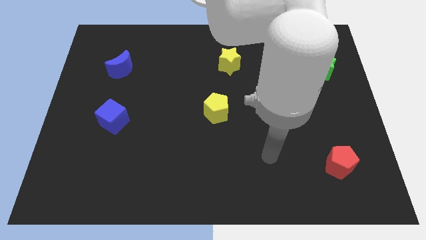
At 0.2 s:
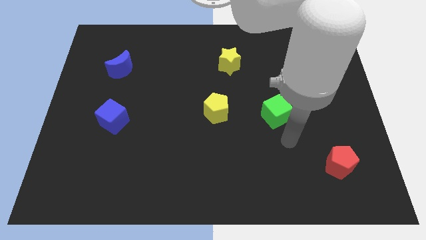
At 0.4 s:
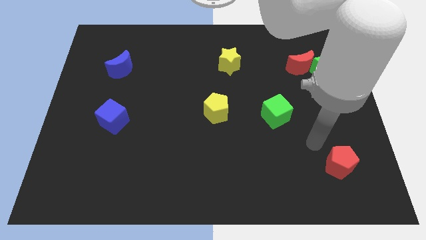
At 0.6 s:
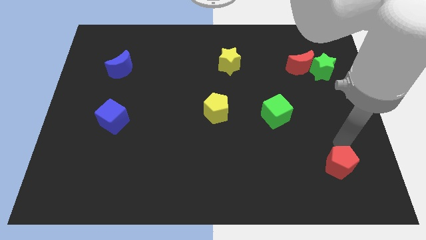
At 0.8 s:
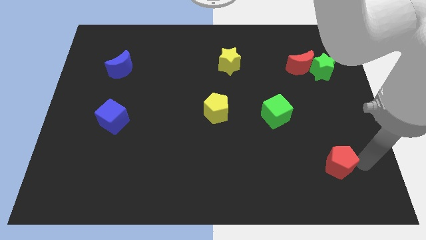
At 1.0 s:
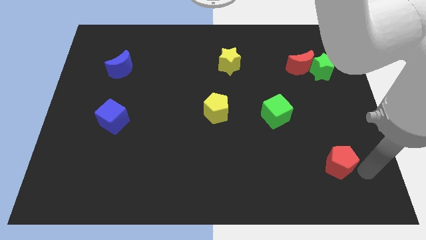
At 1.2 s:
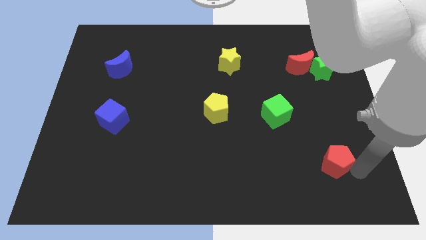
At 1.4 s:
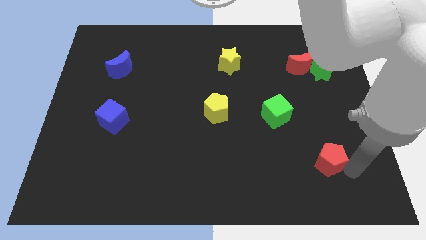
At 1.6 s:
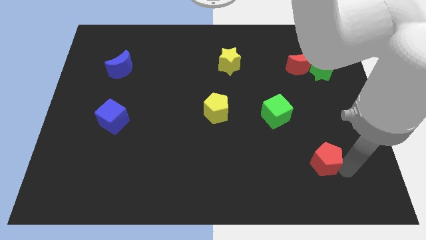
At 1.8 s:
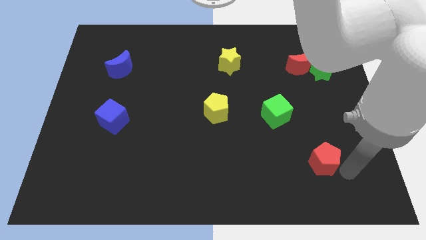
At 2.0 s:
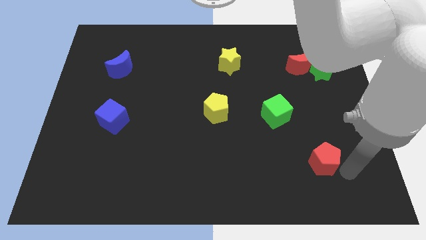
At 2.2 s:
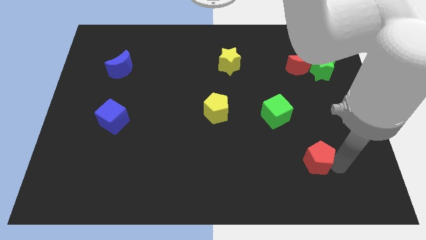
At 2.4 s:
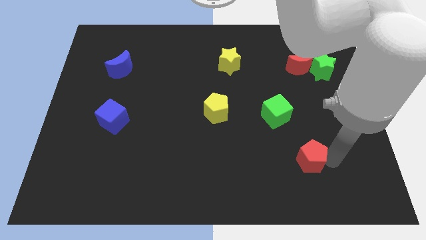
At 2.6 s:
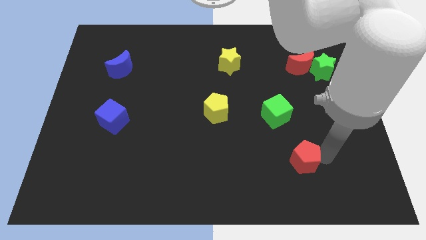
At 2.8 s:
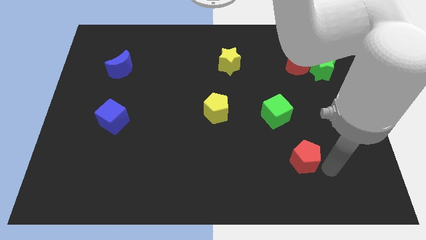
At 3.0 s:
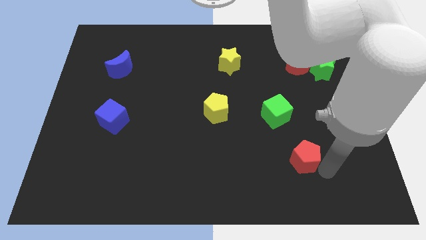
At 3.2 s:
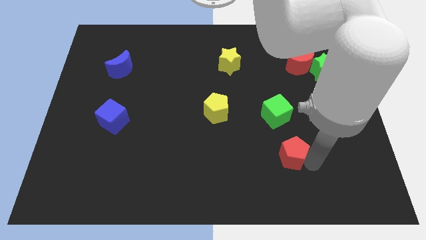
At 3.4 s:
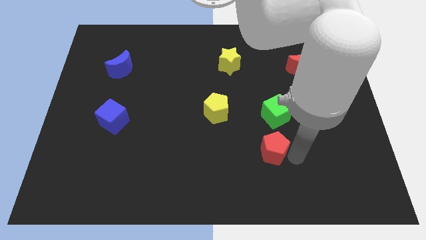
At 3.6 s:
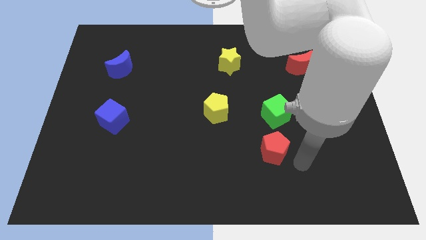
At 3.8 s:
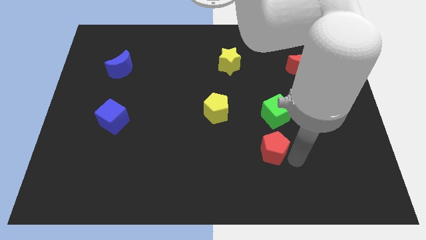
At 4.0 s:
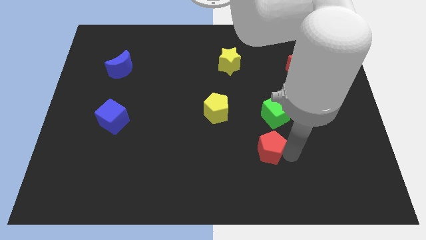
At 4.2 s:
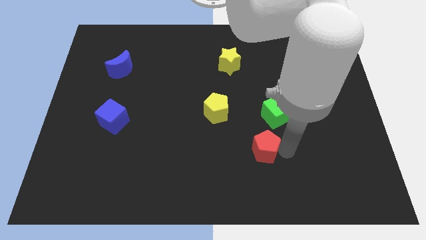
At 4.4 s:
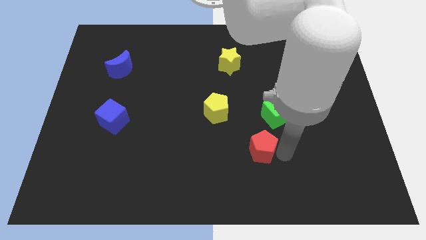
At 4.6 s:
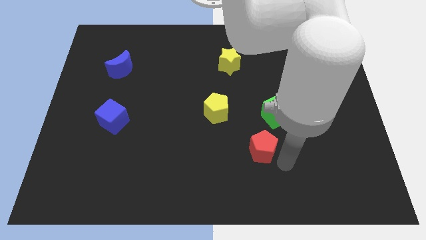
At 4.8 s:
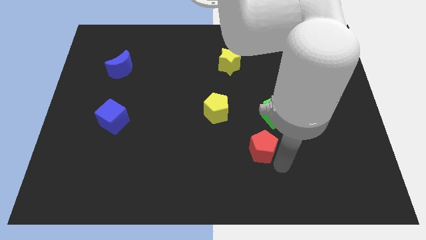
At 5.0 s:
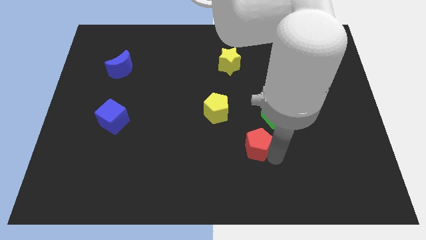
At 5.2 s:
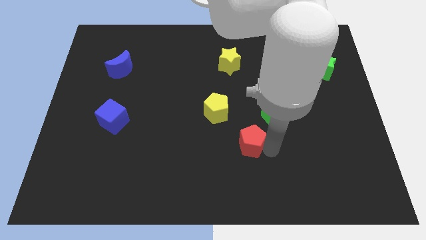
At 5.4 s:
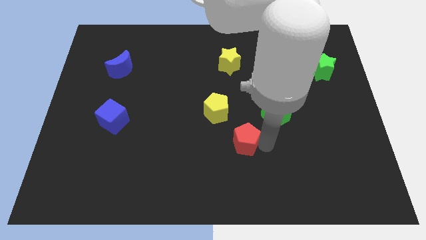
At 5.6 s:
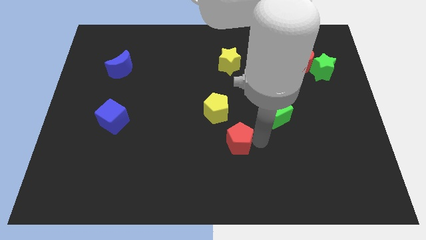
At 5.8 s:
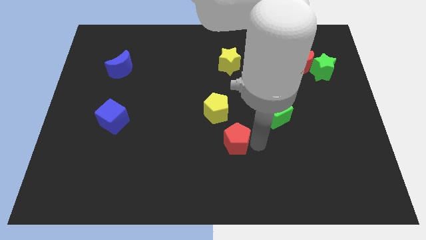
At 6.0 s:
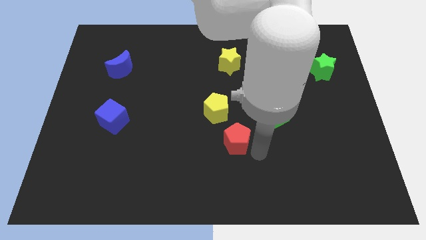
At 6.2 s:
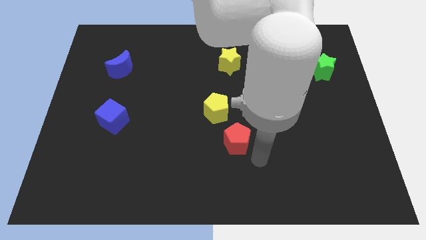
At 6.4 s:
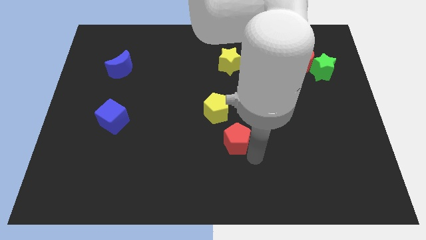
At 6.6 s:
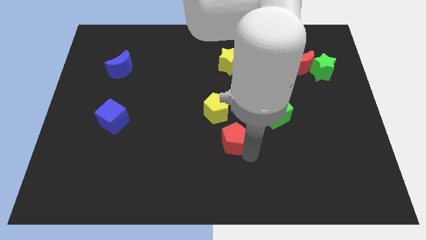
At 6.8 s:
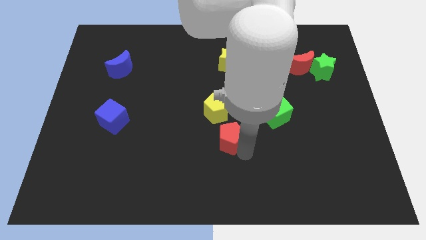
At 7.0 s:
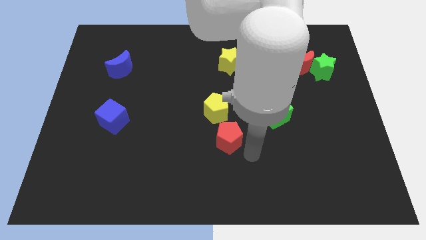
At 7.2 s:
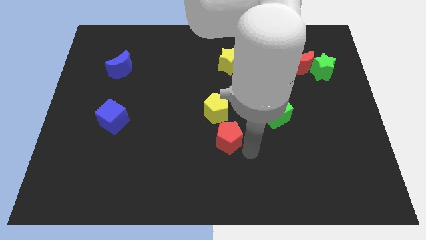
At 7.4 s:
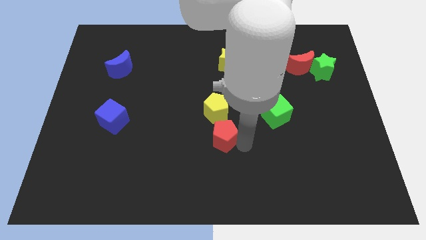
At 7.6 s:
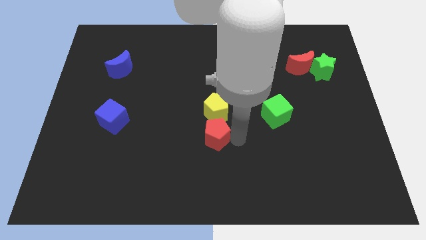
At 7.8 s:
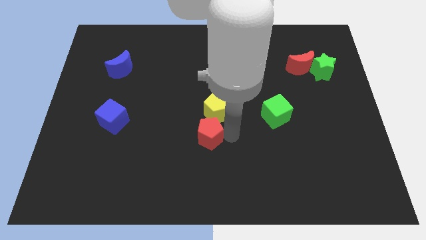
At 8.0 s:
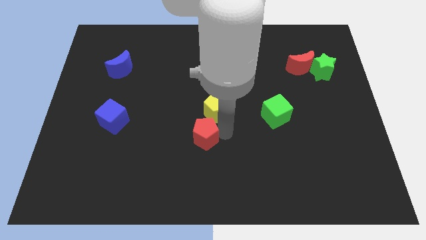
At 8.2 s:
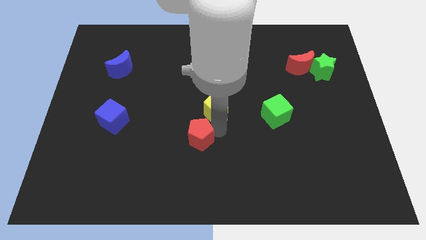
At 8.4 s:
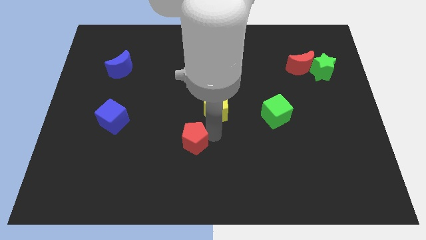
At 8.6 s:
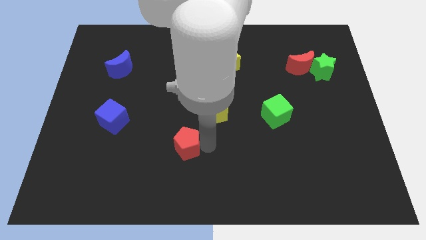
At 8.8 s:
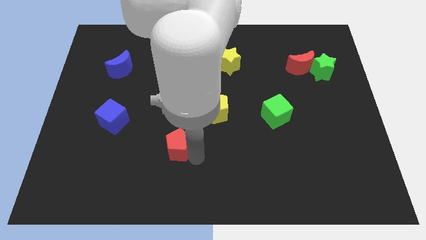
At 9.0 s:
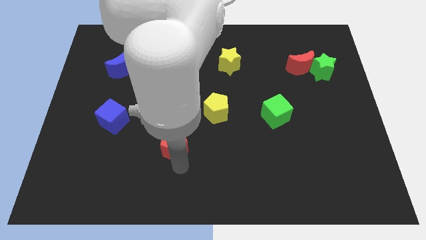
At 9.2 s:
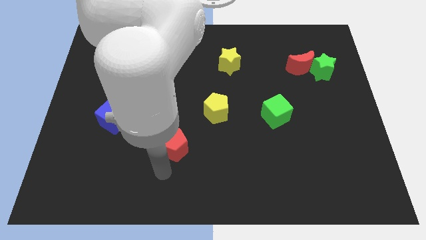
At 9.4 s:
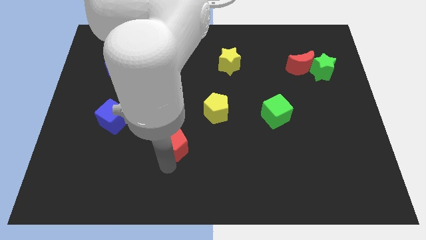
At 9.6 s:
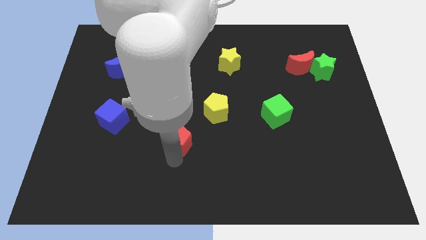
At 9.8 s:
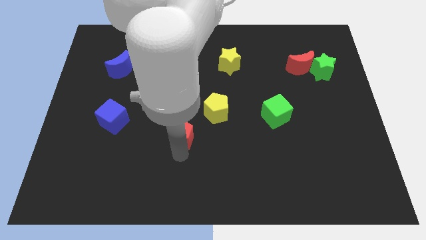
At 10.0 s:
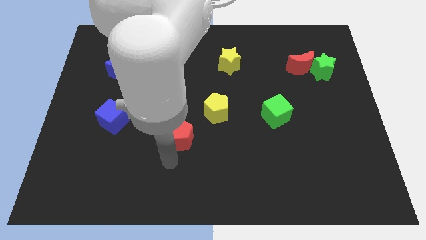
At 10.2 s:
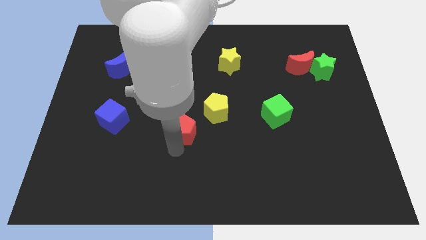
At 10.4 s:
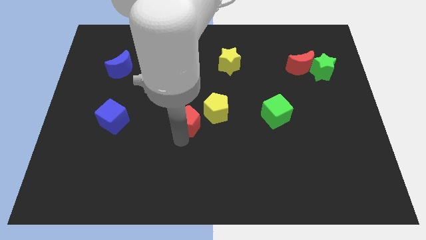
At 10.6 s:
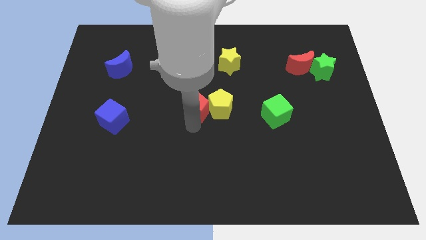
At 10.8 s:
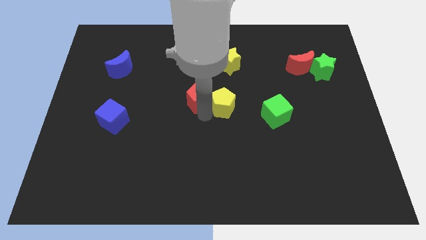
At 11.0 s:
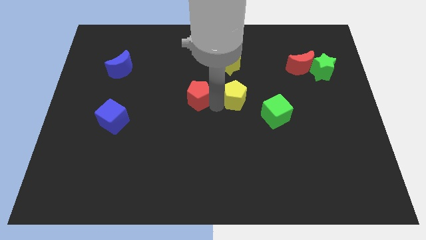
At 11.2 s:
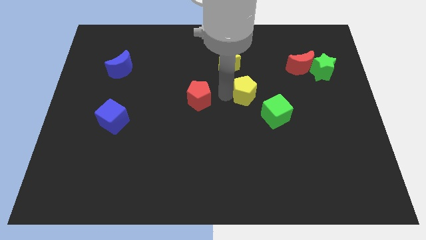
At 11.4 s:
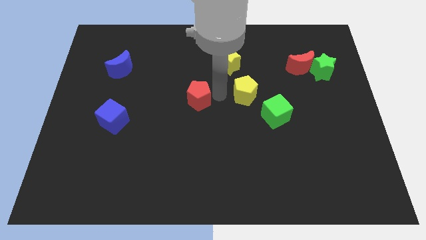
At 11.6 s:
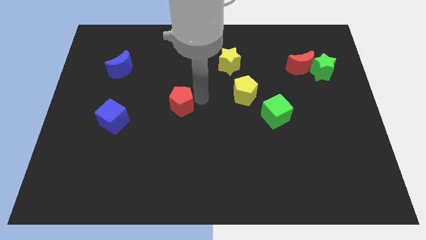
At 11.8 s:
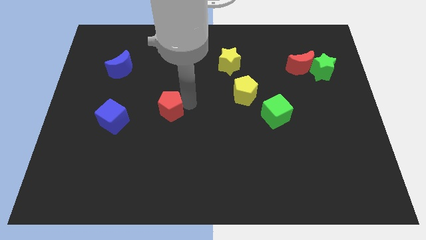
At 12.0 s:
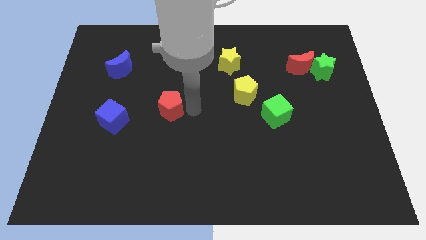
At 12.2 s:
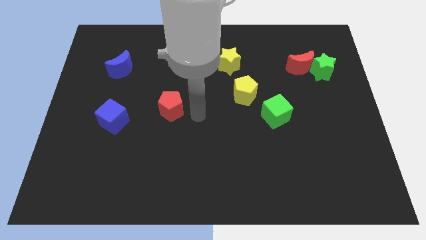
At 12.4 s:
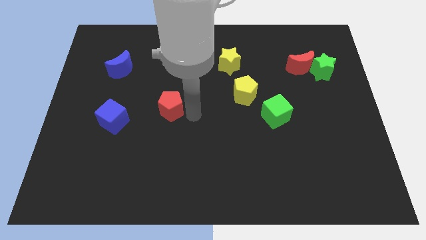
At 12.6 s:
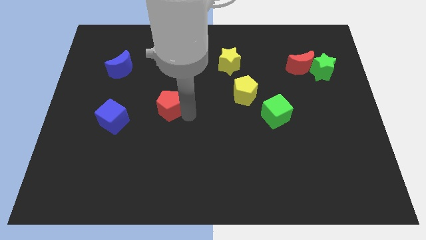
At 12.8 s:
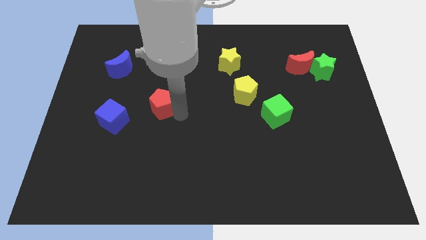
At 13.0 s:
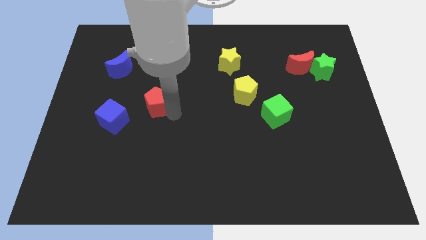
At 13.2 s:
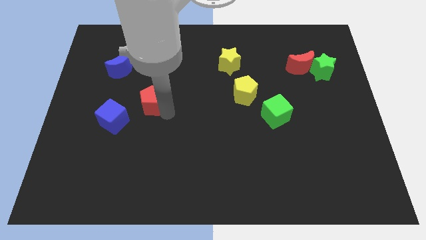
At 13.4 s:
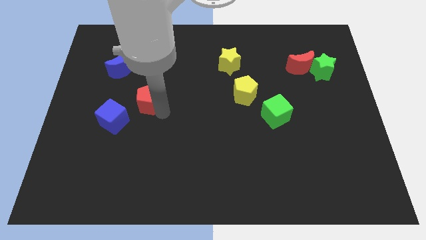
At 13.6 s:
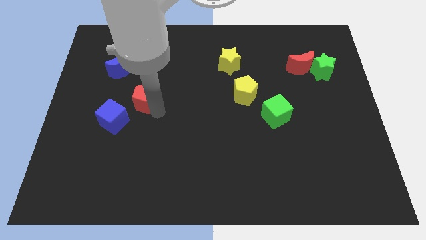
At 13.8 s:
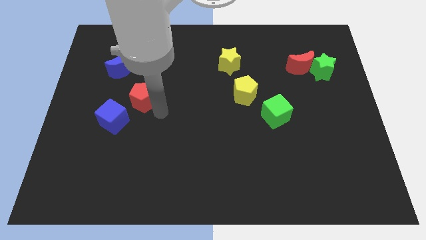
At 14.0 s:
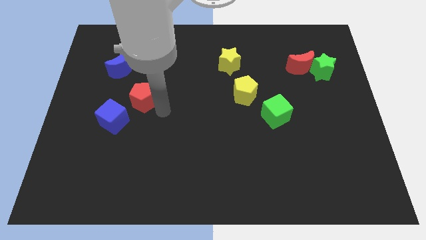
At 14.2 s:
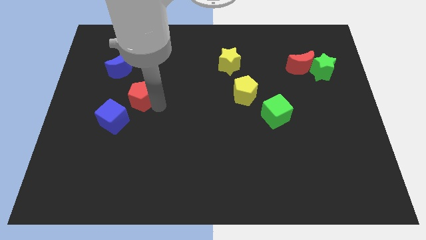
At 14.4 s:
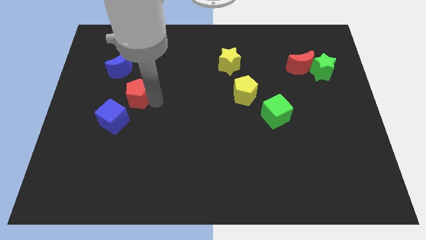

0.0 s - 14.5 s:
slide the red pentagon above the blue cube

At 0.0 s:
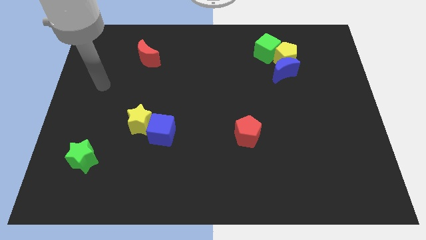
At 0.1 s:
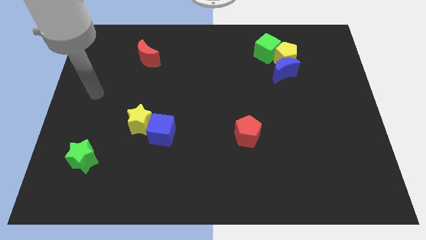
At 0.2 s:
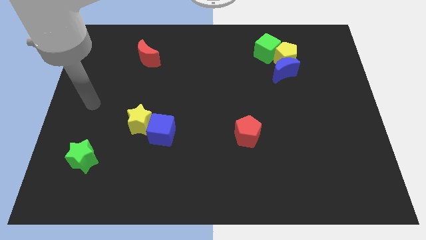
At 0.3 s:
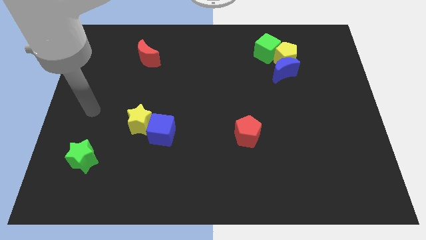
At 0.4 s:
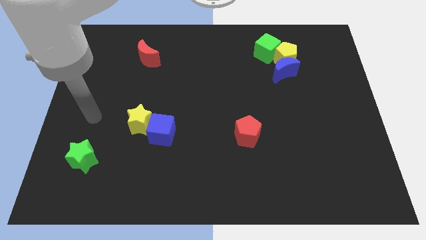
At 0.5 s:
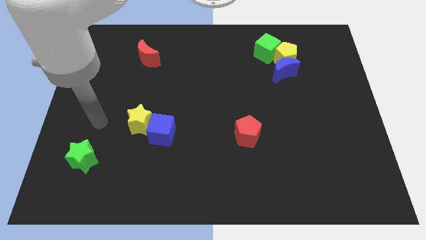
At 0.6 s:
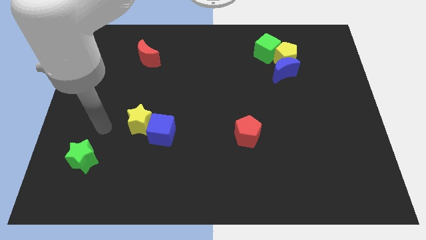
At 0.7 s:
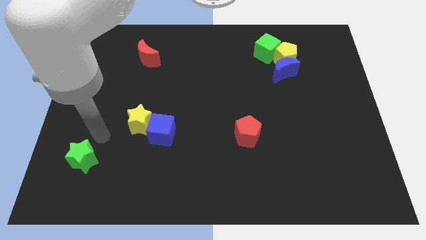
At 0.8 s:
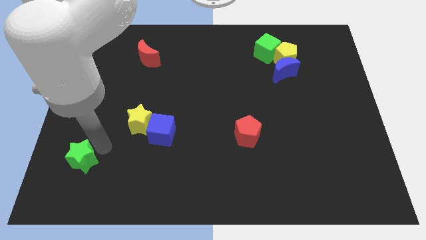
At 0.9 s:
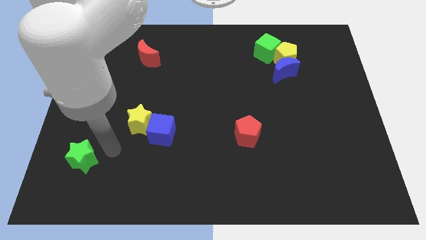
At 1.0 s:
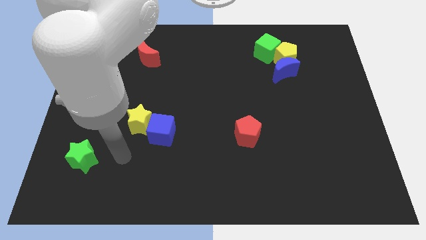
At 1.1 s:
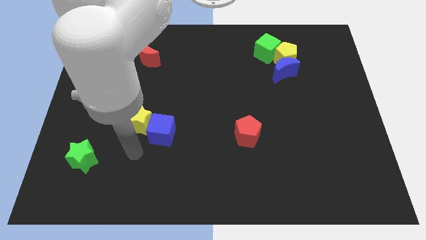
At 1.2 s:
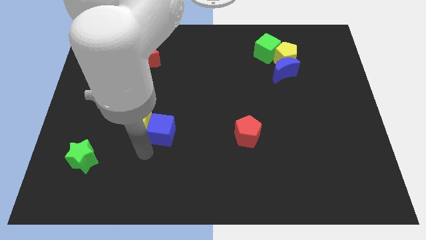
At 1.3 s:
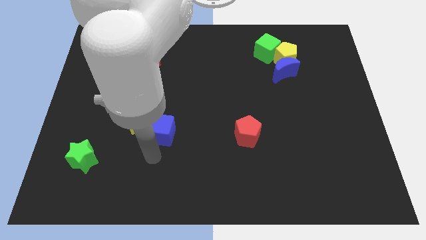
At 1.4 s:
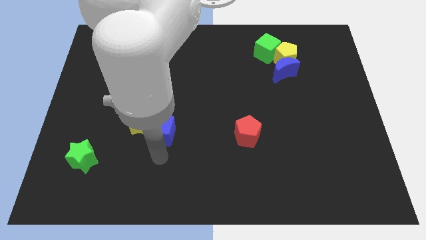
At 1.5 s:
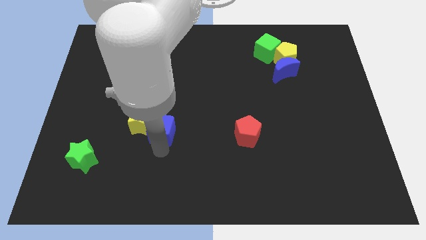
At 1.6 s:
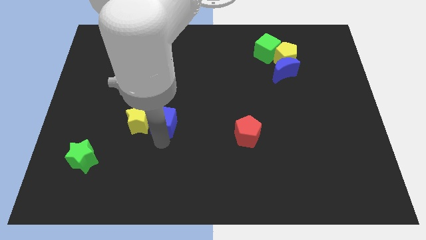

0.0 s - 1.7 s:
move the blue cube to the top right of the yellow star
